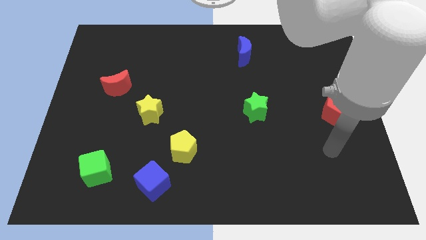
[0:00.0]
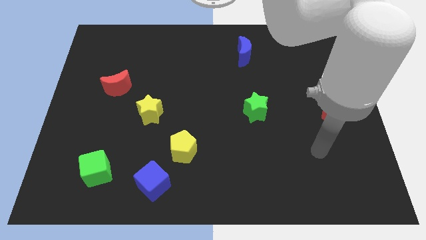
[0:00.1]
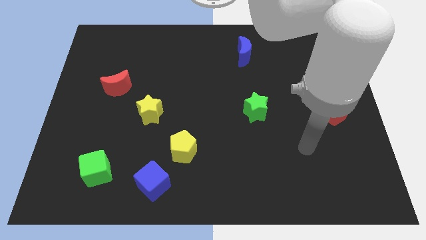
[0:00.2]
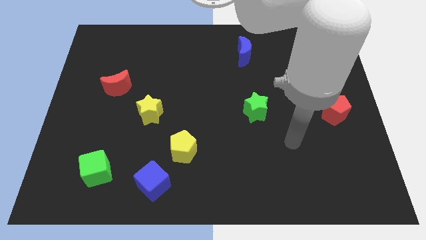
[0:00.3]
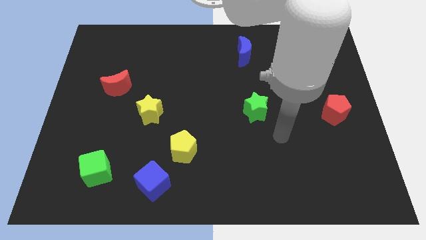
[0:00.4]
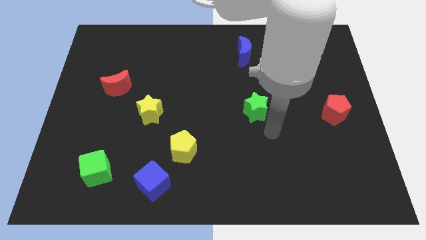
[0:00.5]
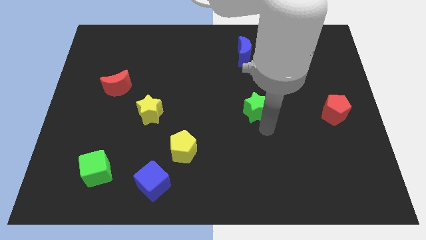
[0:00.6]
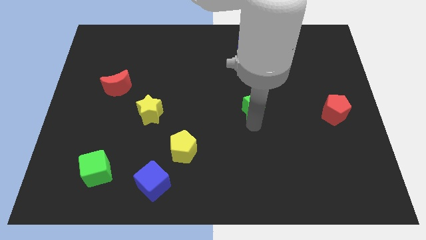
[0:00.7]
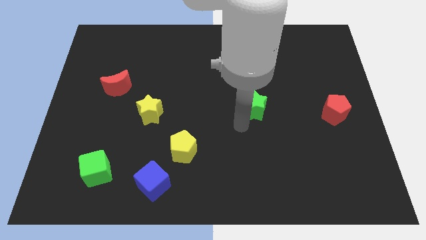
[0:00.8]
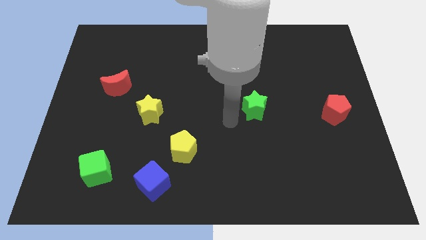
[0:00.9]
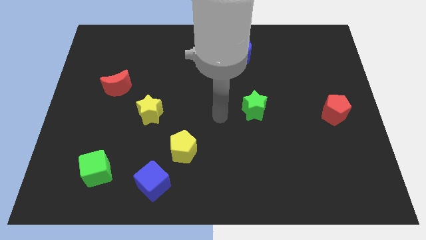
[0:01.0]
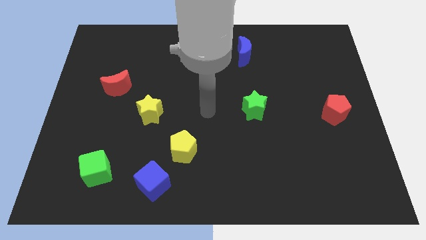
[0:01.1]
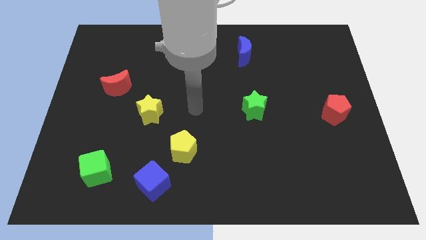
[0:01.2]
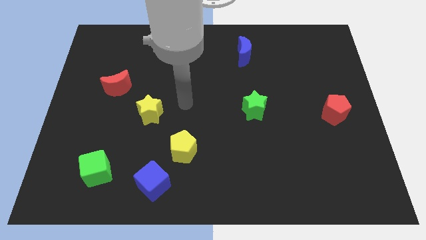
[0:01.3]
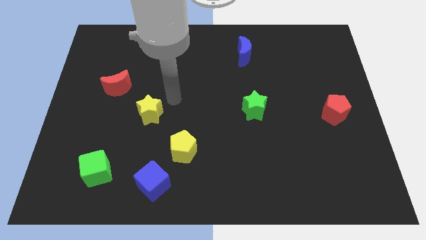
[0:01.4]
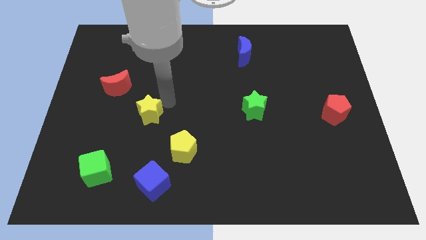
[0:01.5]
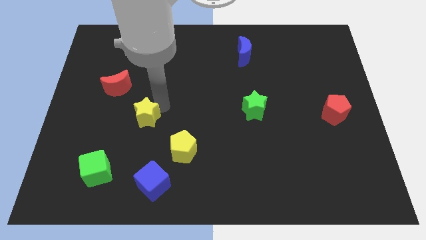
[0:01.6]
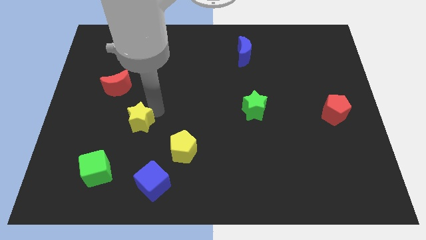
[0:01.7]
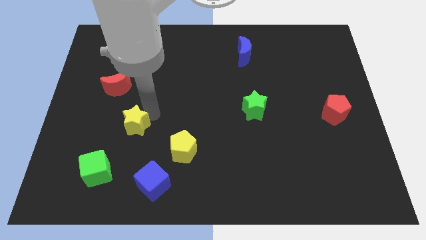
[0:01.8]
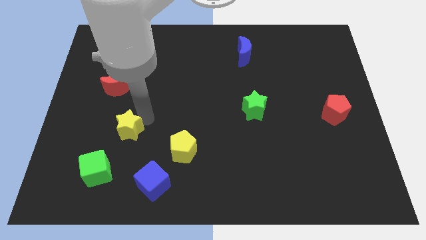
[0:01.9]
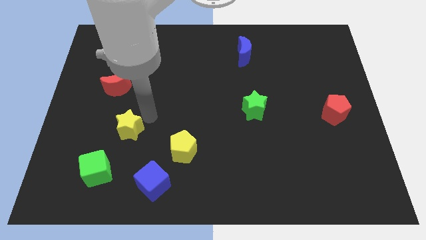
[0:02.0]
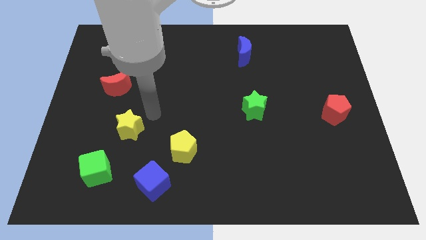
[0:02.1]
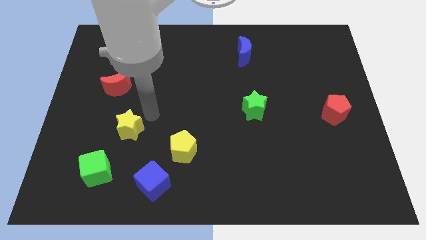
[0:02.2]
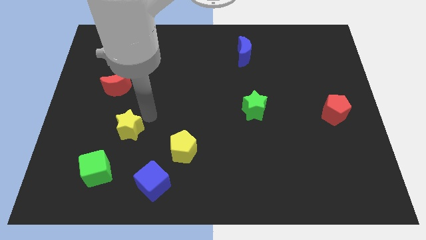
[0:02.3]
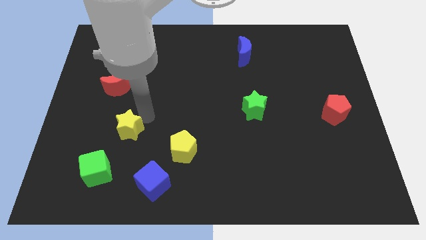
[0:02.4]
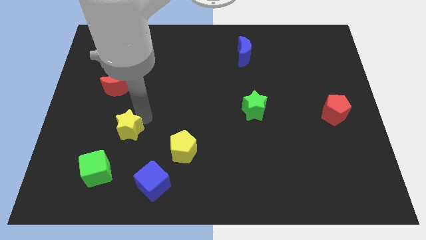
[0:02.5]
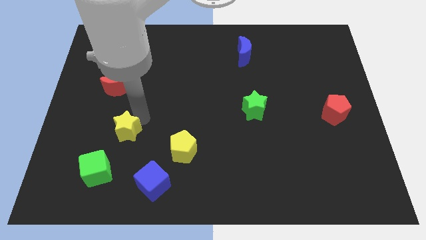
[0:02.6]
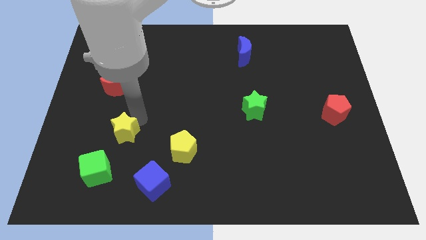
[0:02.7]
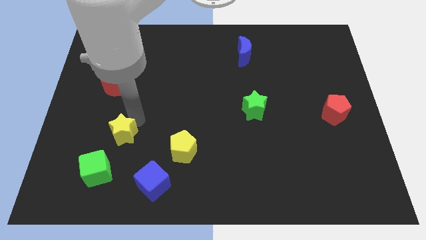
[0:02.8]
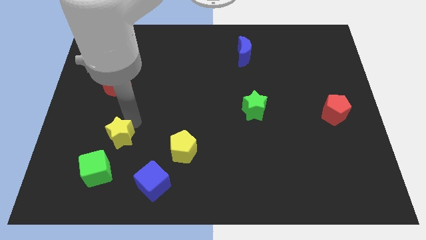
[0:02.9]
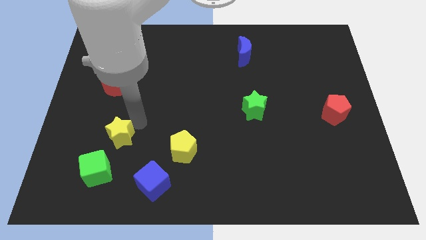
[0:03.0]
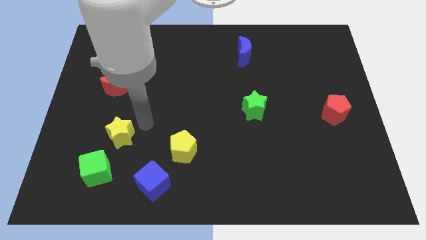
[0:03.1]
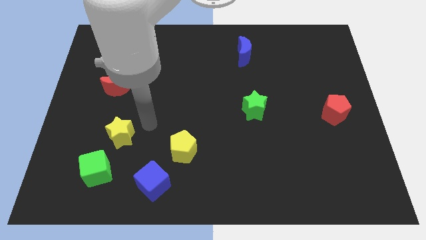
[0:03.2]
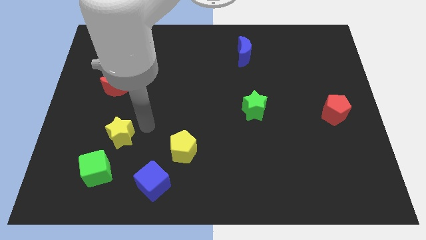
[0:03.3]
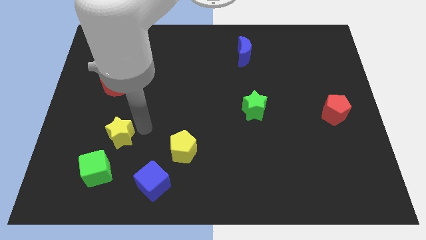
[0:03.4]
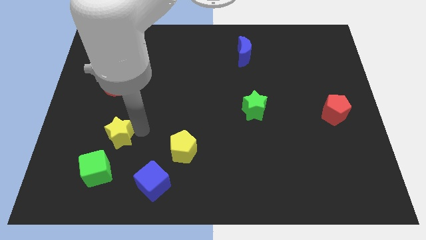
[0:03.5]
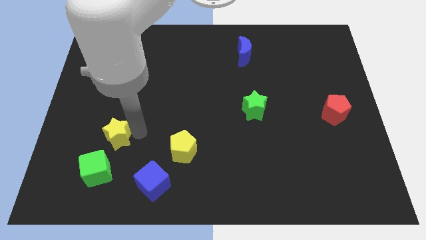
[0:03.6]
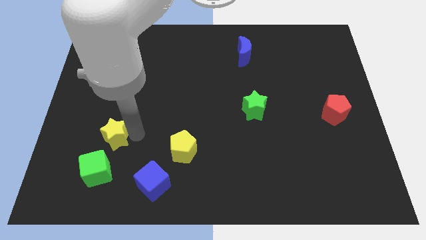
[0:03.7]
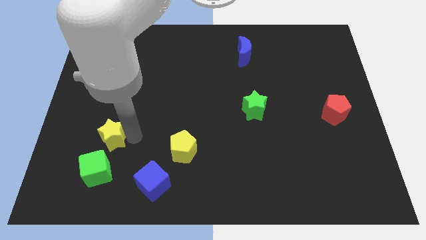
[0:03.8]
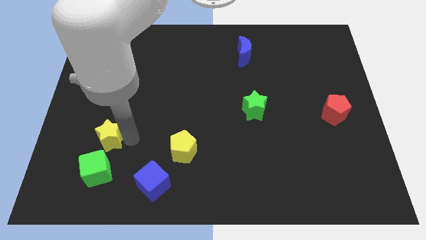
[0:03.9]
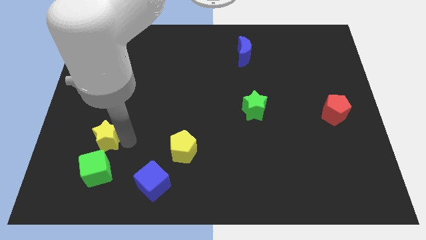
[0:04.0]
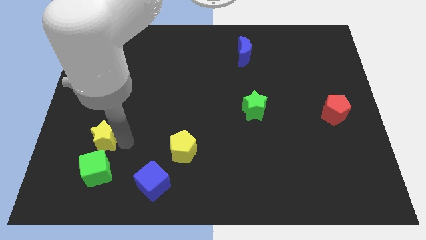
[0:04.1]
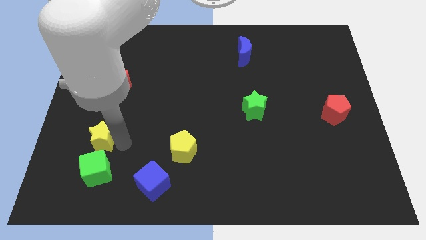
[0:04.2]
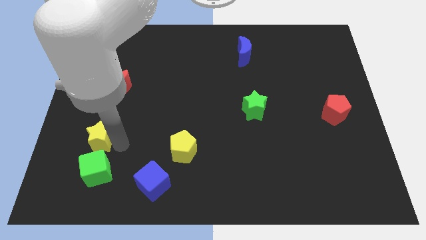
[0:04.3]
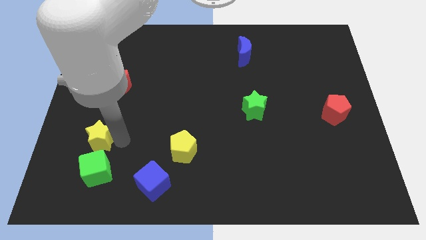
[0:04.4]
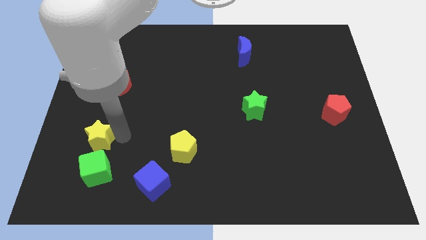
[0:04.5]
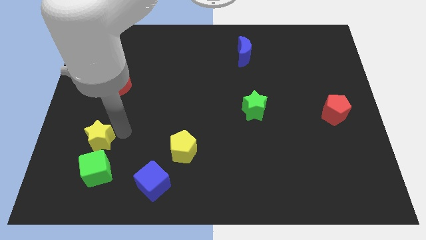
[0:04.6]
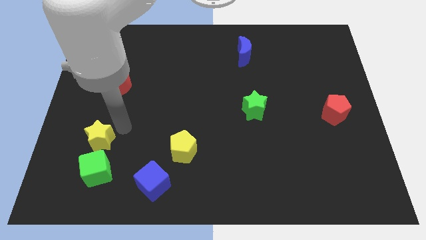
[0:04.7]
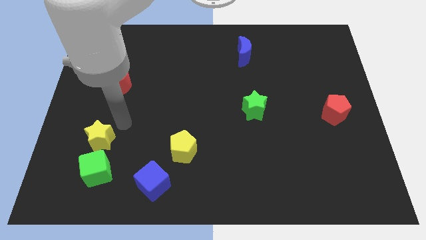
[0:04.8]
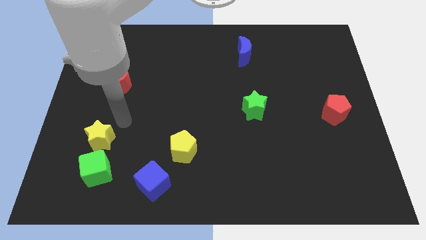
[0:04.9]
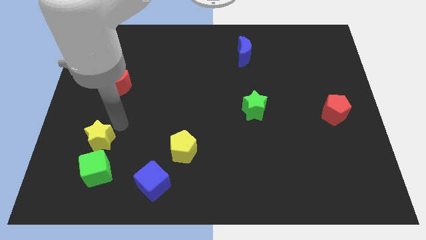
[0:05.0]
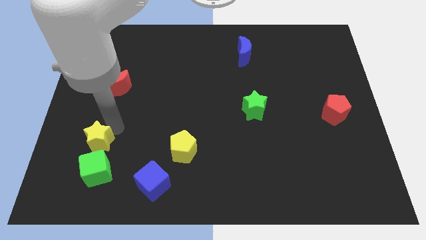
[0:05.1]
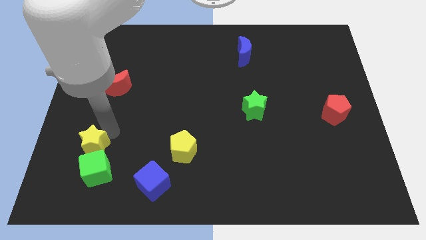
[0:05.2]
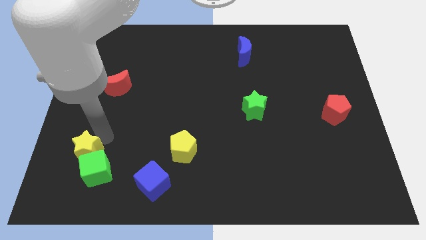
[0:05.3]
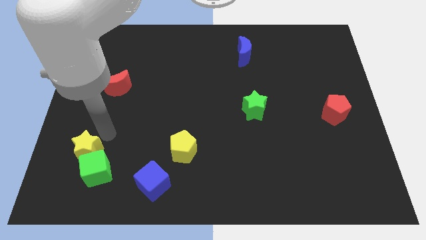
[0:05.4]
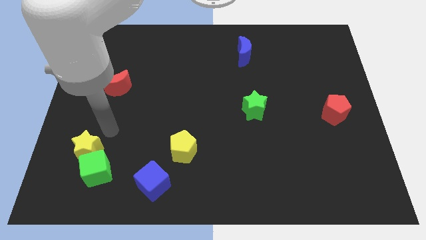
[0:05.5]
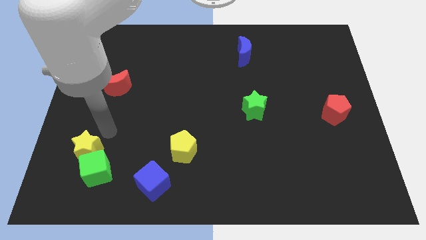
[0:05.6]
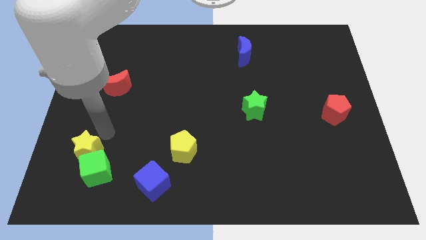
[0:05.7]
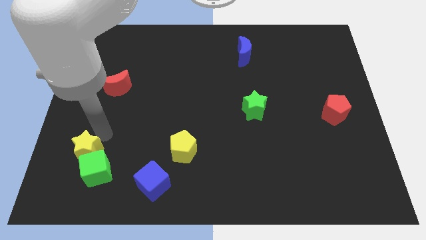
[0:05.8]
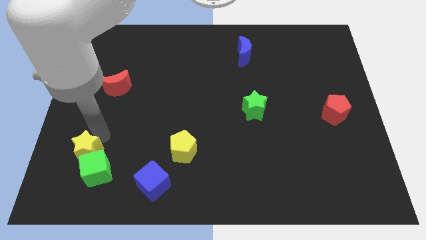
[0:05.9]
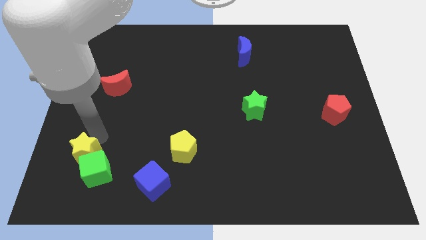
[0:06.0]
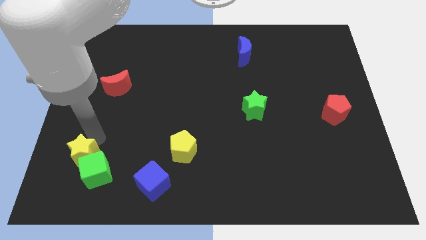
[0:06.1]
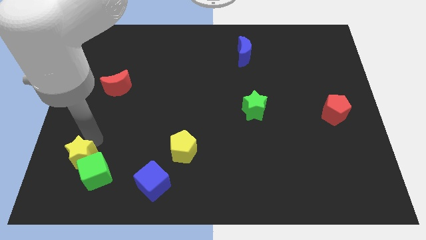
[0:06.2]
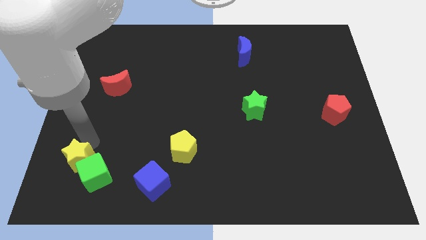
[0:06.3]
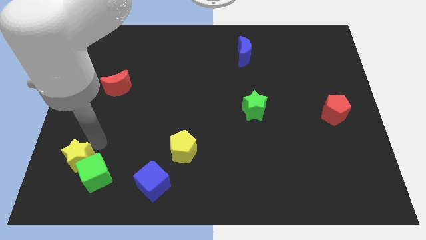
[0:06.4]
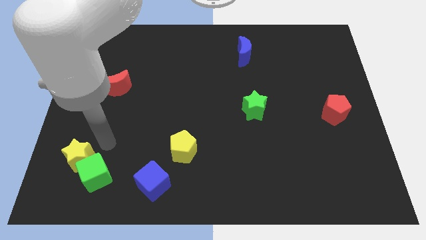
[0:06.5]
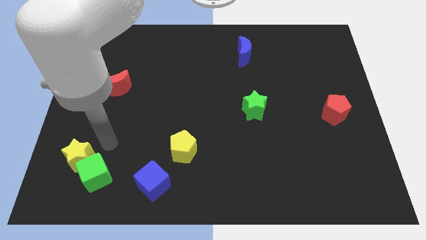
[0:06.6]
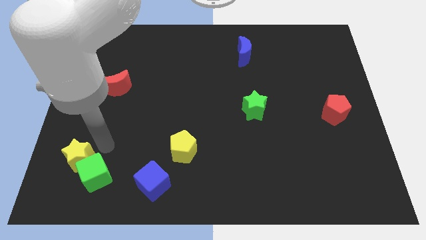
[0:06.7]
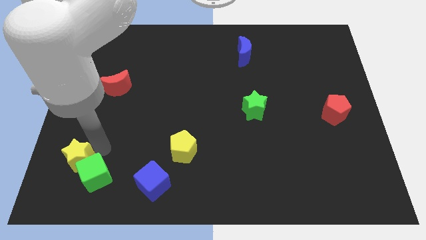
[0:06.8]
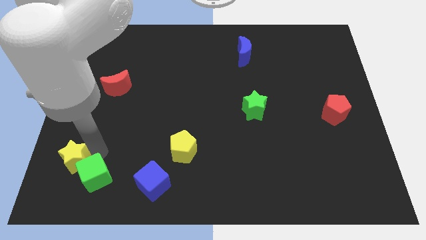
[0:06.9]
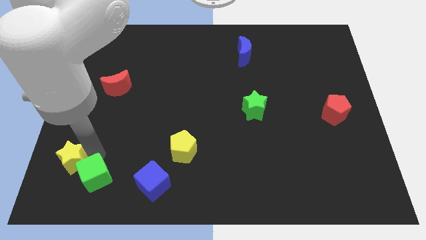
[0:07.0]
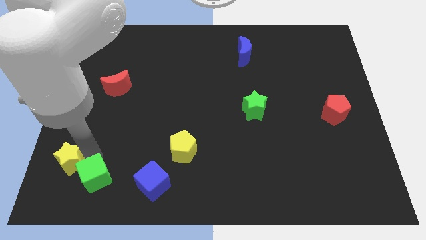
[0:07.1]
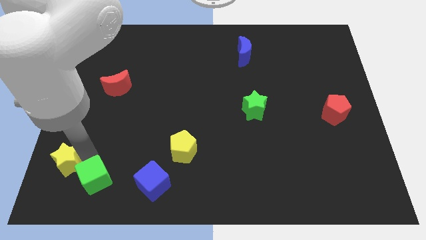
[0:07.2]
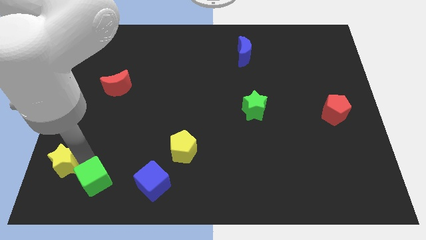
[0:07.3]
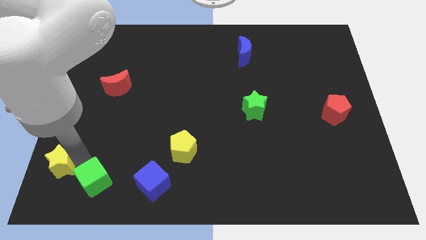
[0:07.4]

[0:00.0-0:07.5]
push the yellow star to the bottom left of the board

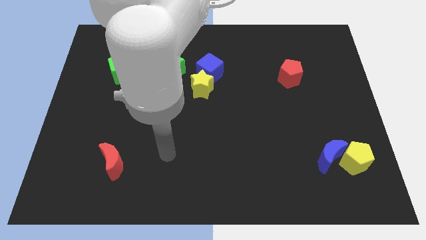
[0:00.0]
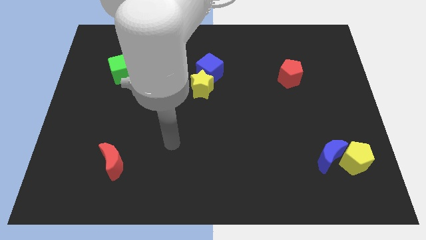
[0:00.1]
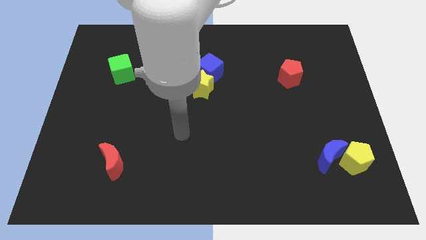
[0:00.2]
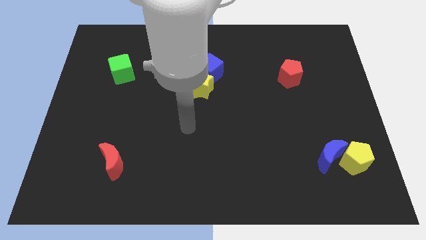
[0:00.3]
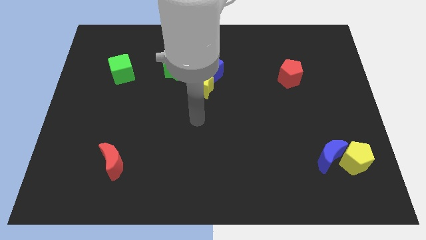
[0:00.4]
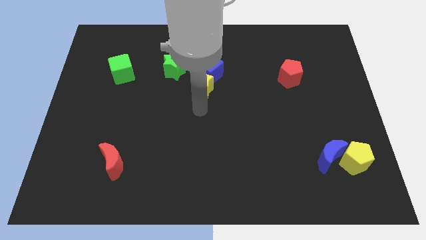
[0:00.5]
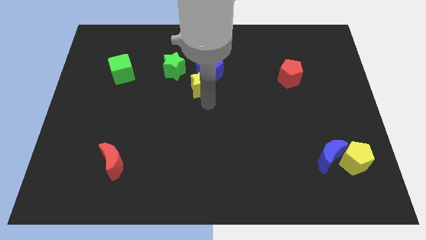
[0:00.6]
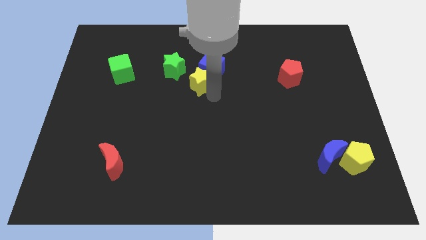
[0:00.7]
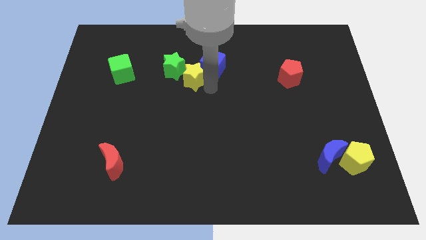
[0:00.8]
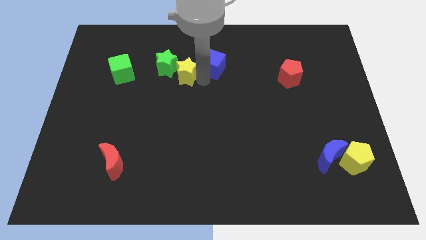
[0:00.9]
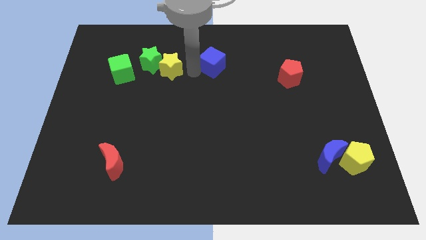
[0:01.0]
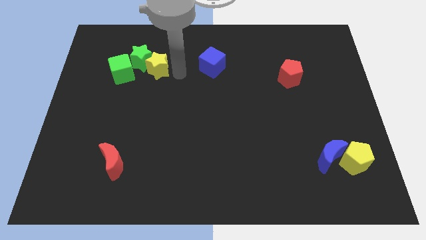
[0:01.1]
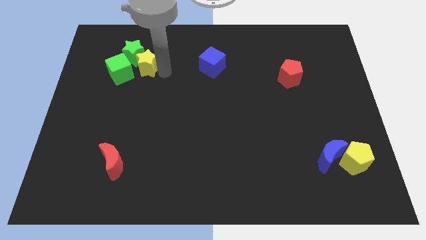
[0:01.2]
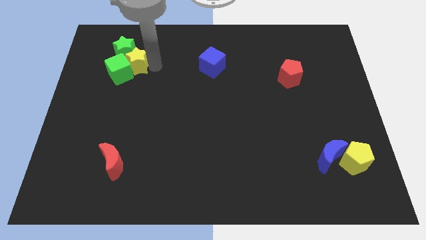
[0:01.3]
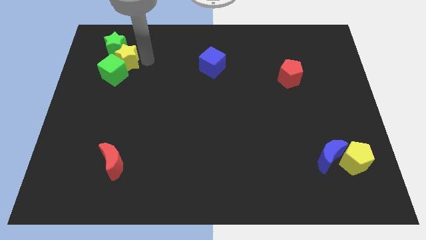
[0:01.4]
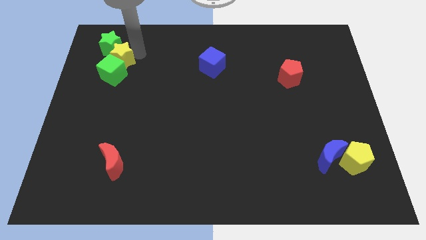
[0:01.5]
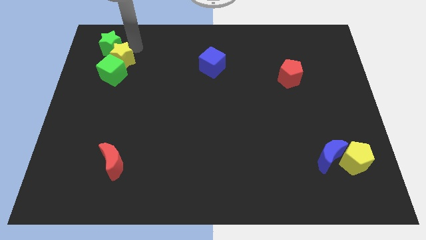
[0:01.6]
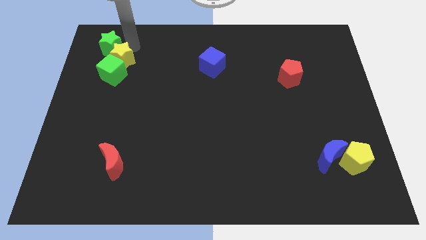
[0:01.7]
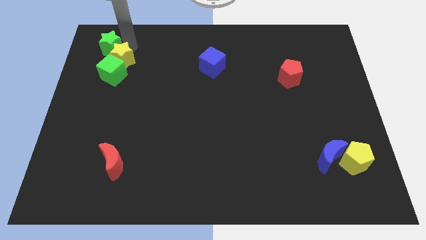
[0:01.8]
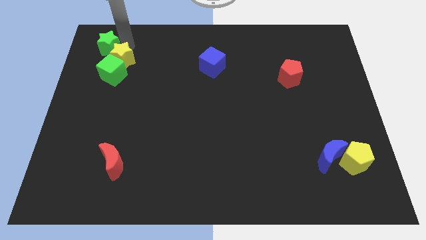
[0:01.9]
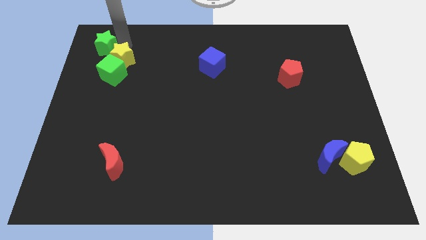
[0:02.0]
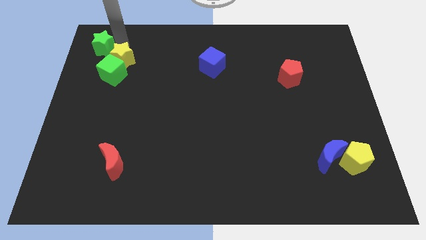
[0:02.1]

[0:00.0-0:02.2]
move the green star to the top left corner
